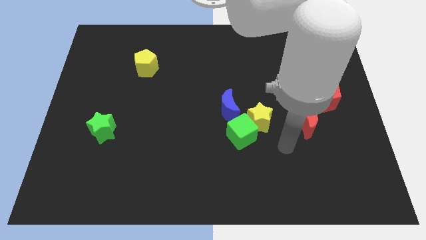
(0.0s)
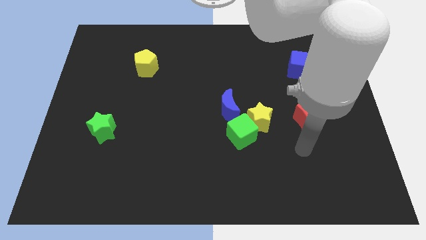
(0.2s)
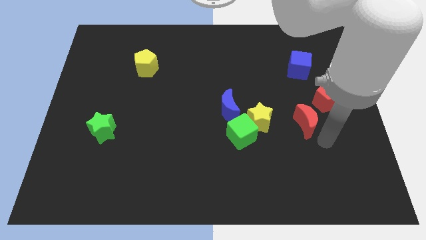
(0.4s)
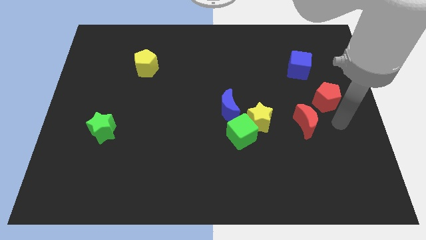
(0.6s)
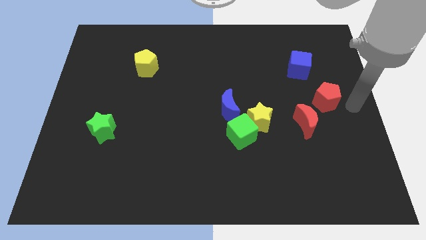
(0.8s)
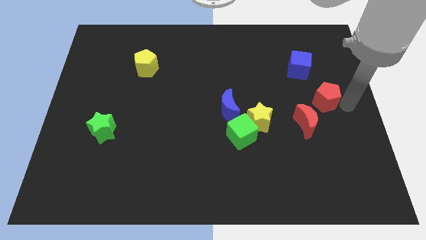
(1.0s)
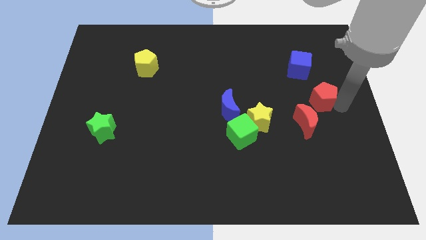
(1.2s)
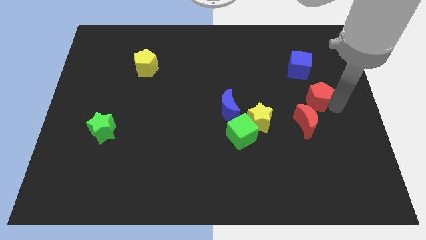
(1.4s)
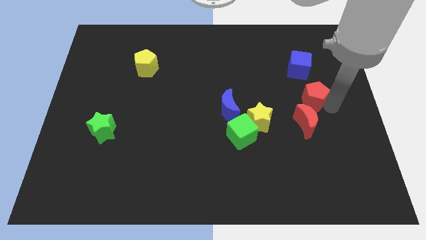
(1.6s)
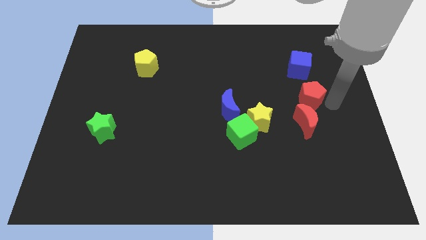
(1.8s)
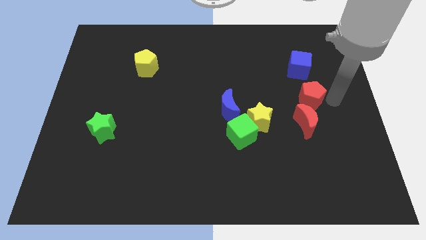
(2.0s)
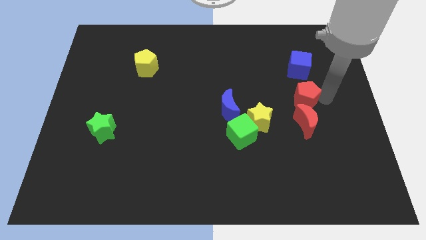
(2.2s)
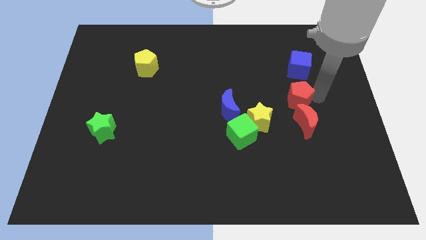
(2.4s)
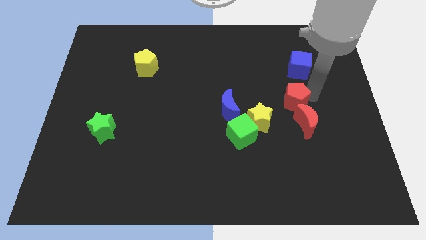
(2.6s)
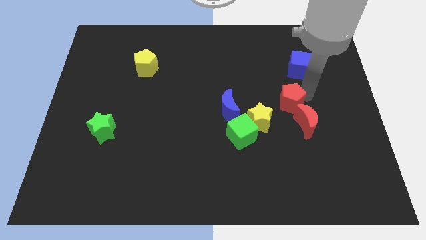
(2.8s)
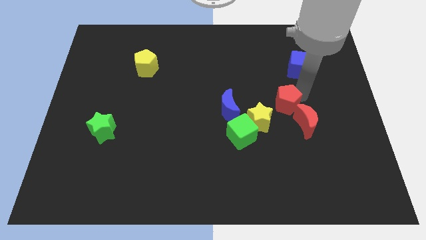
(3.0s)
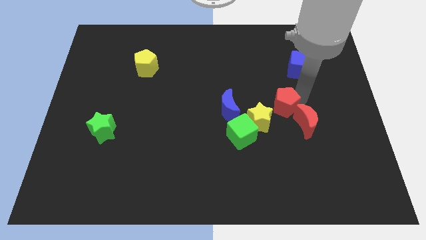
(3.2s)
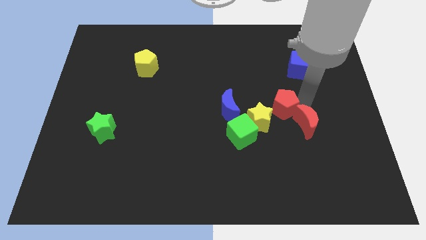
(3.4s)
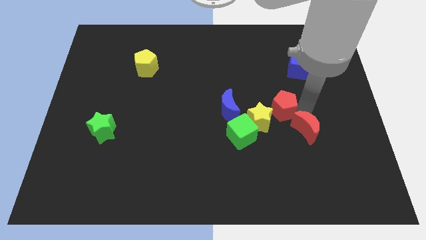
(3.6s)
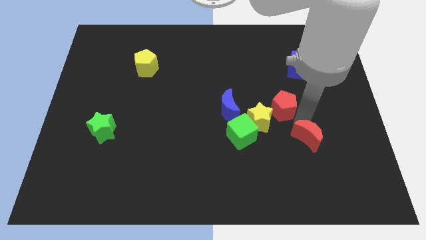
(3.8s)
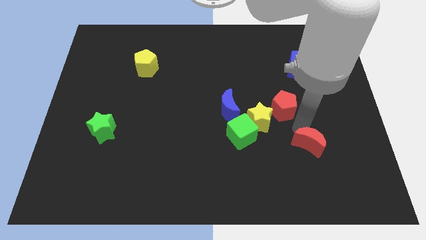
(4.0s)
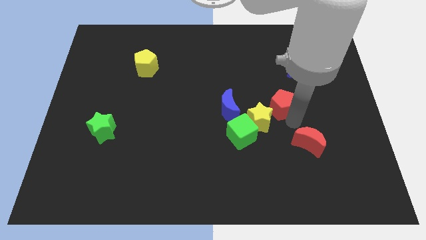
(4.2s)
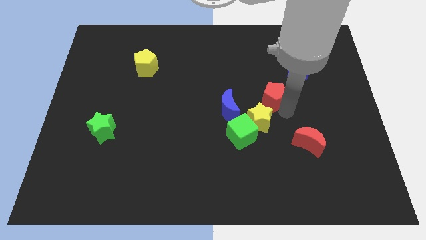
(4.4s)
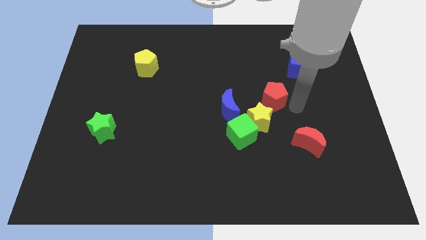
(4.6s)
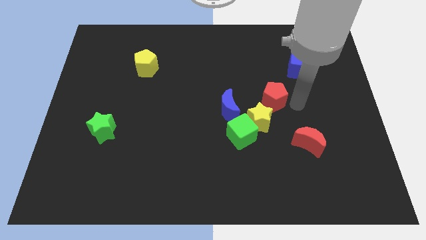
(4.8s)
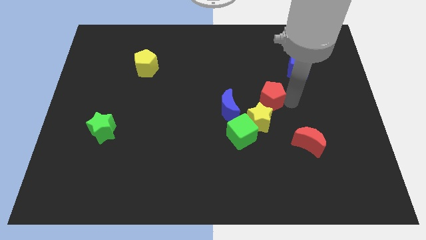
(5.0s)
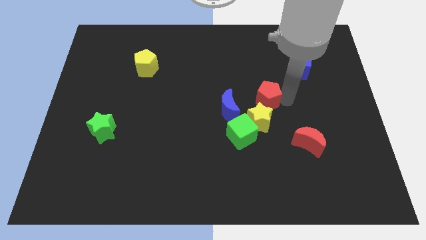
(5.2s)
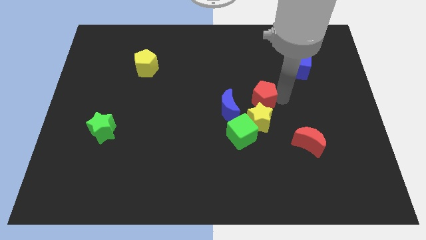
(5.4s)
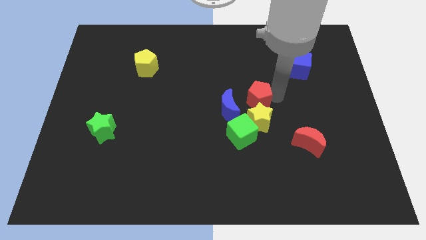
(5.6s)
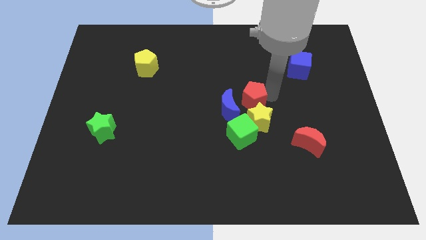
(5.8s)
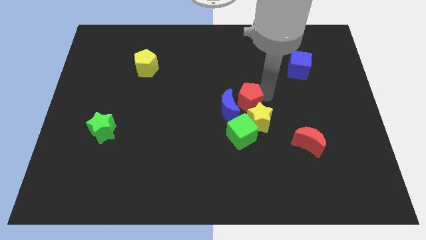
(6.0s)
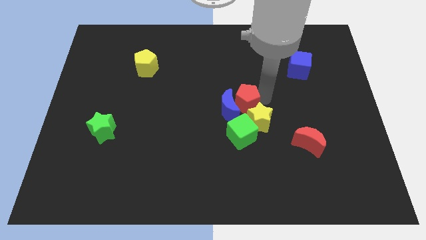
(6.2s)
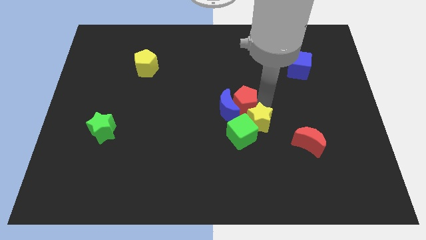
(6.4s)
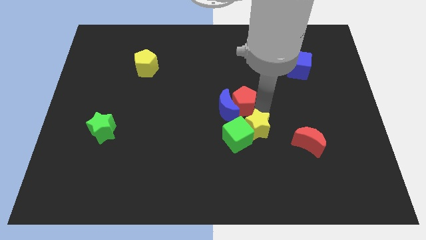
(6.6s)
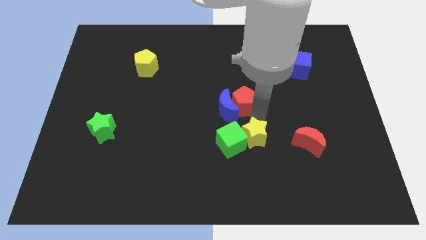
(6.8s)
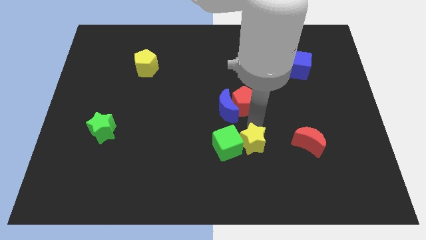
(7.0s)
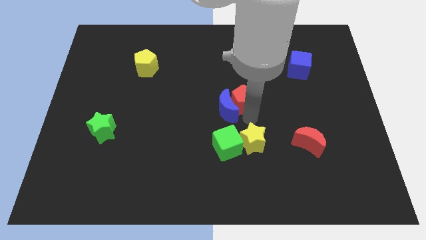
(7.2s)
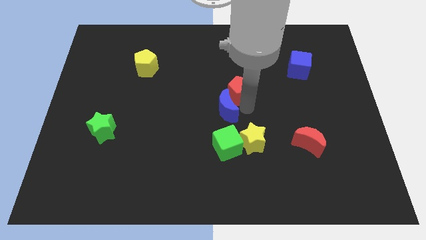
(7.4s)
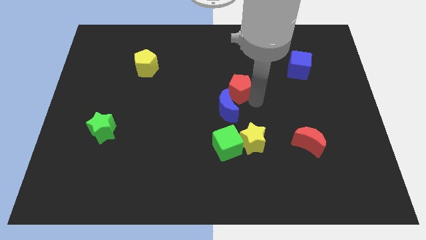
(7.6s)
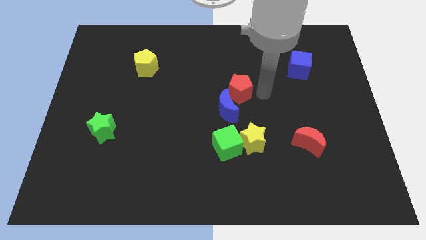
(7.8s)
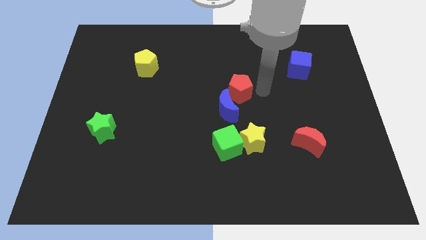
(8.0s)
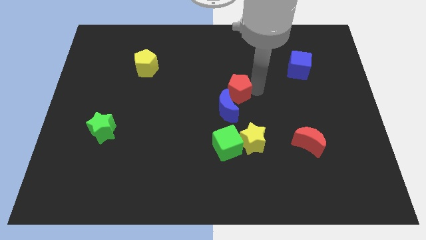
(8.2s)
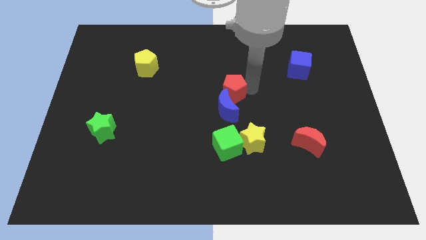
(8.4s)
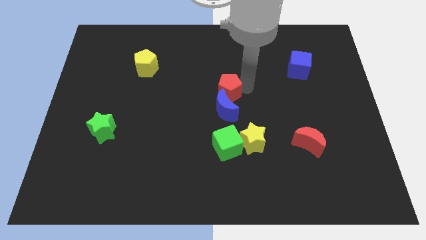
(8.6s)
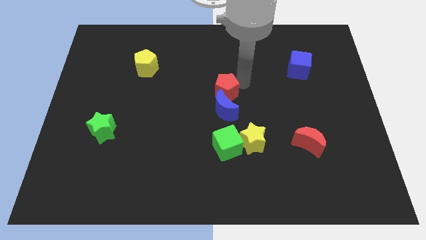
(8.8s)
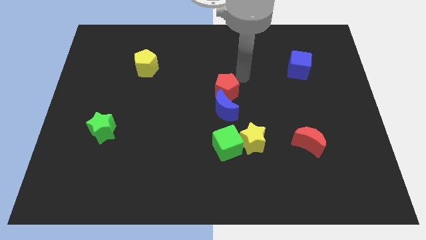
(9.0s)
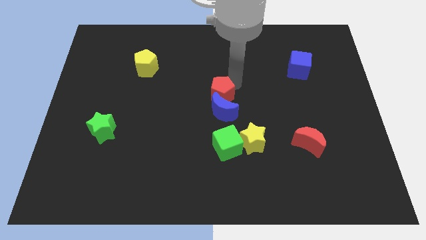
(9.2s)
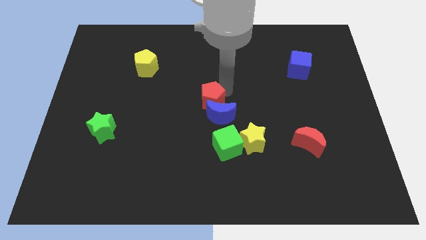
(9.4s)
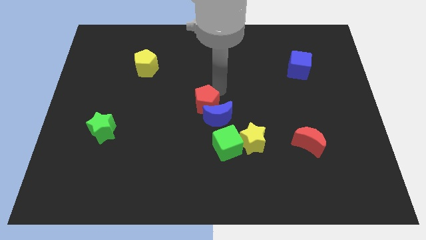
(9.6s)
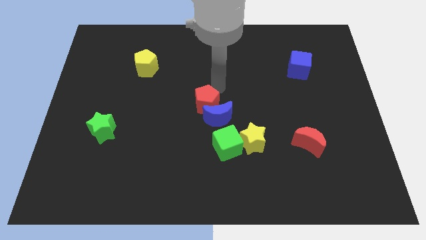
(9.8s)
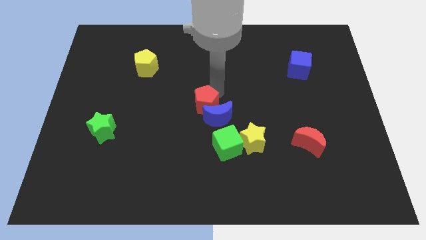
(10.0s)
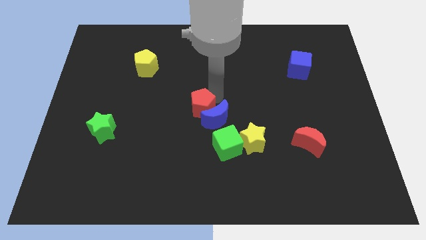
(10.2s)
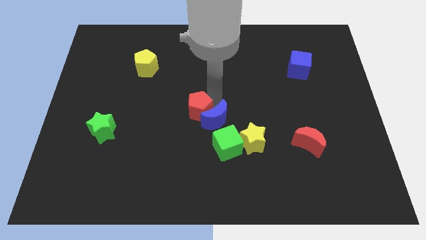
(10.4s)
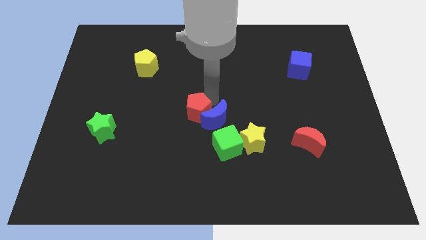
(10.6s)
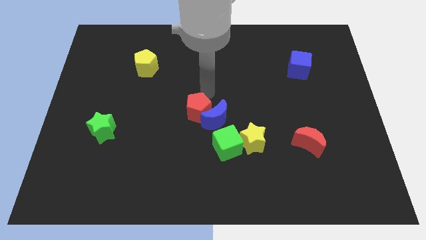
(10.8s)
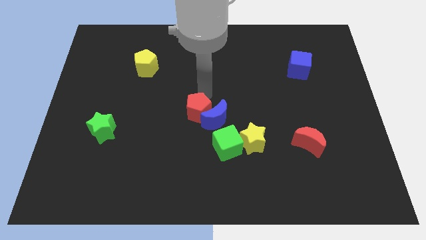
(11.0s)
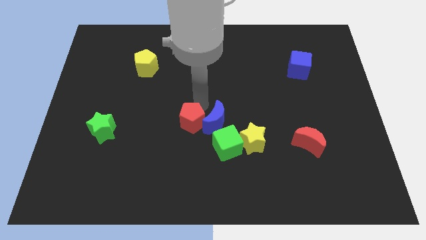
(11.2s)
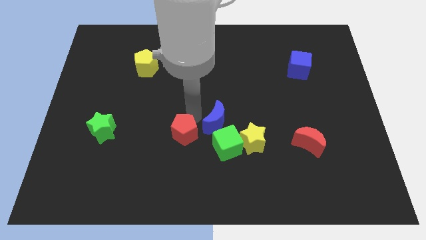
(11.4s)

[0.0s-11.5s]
push the red pentagon left of the green cube

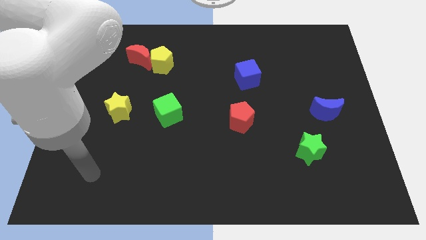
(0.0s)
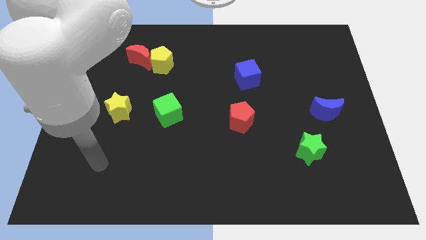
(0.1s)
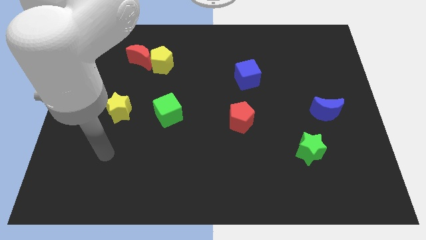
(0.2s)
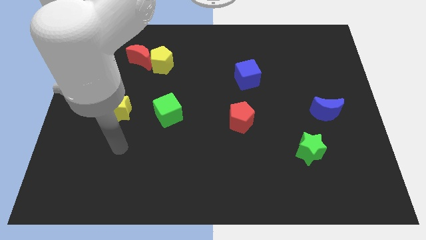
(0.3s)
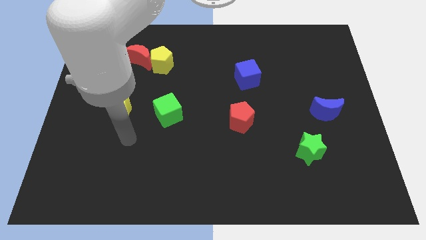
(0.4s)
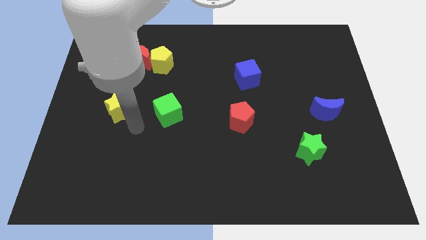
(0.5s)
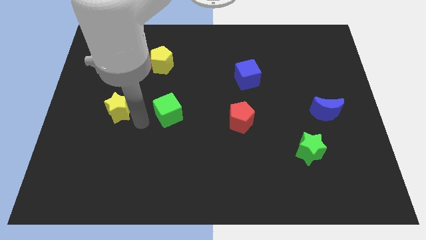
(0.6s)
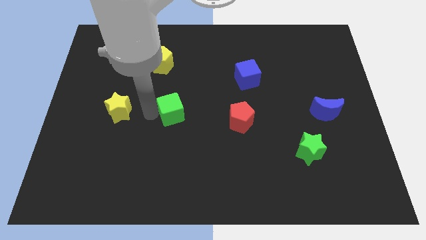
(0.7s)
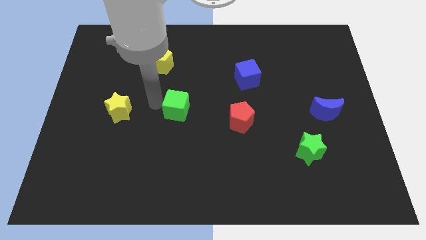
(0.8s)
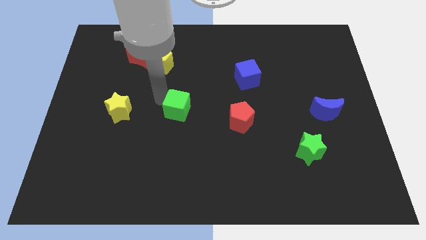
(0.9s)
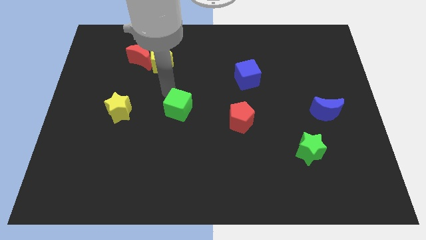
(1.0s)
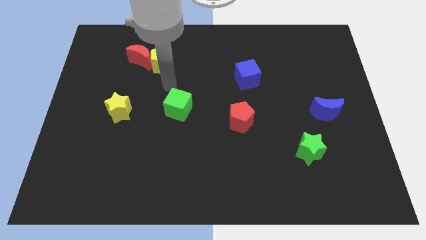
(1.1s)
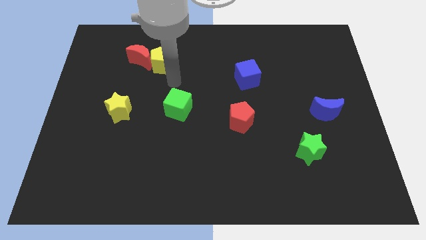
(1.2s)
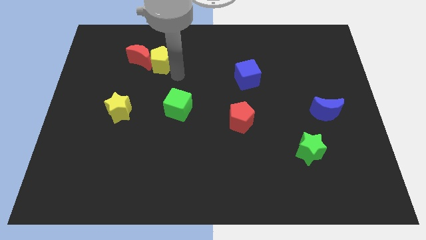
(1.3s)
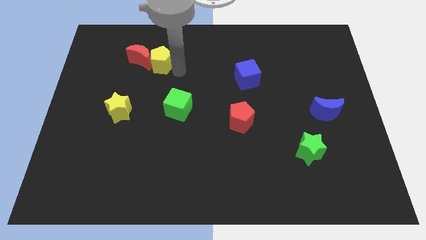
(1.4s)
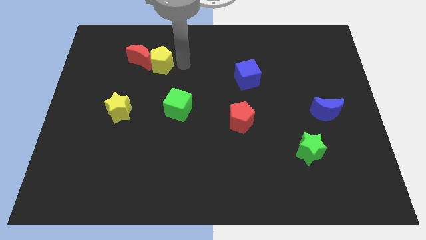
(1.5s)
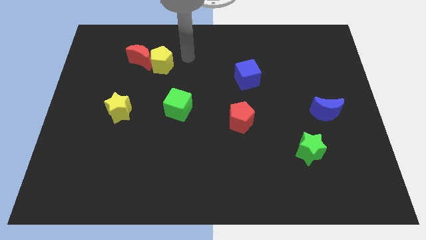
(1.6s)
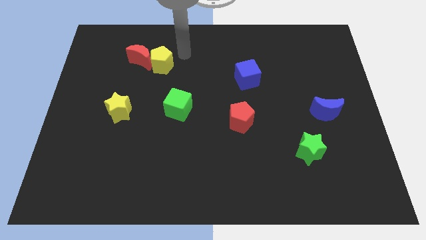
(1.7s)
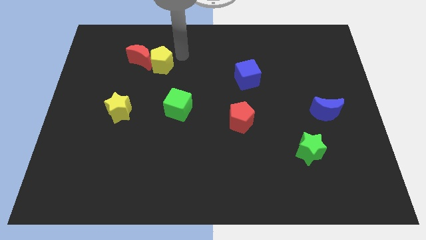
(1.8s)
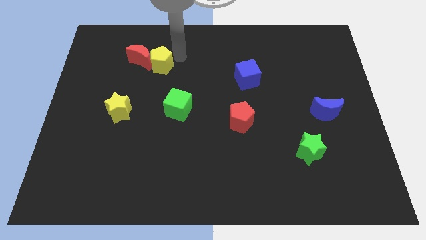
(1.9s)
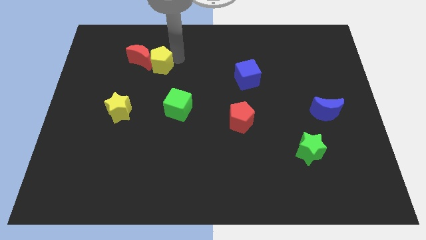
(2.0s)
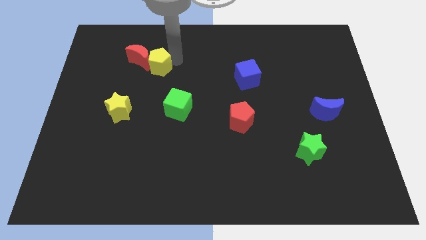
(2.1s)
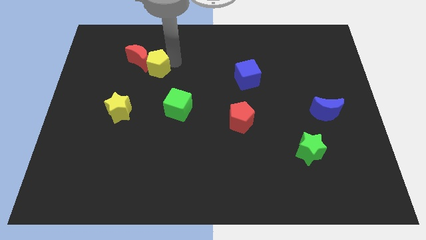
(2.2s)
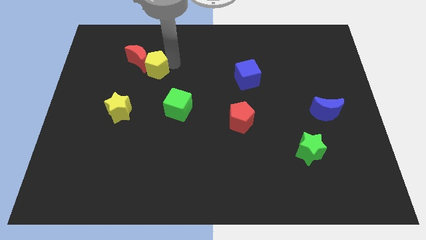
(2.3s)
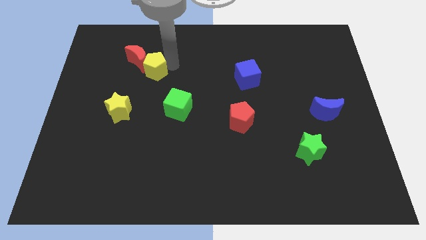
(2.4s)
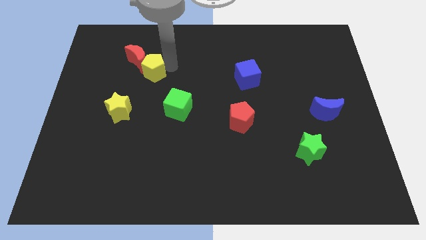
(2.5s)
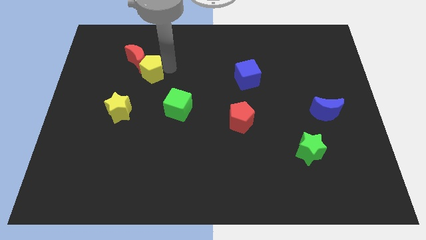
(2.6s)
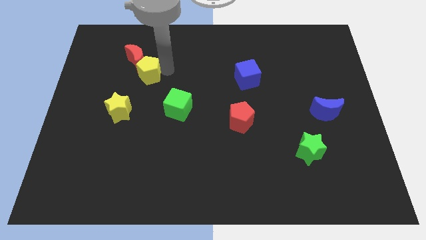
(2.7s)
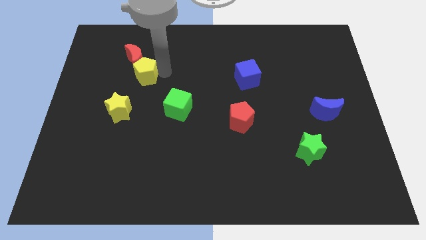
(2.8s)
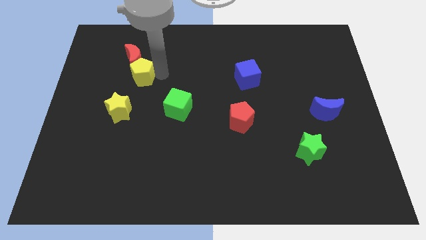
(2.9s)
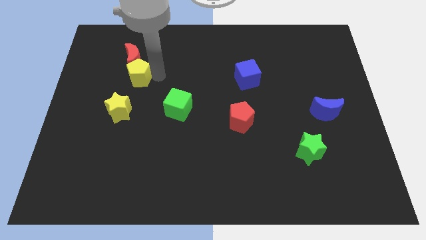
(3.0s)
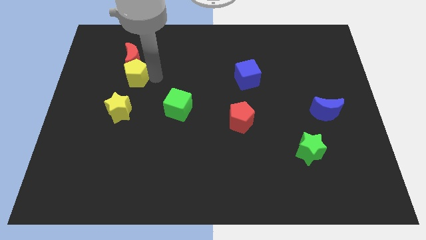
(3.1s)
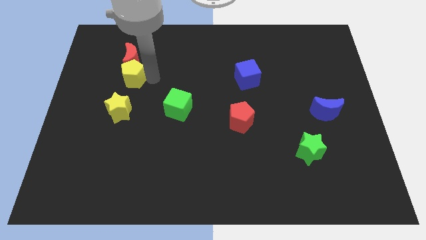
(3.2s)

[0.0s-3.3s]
put the yellow pentagon to the bottom left side of the red moon
